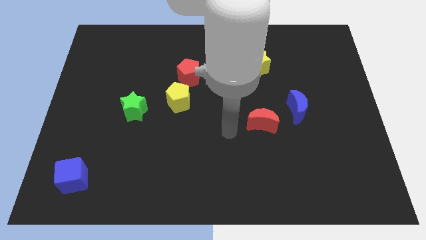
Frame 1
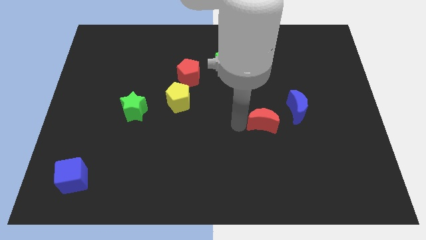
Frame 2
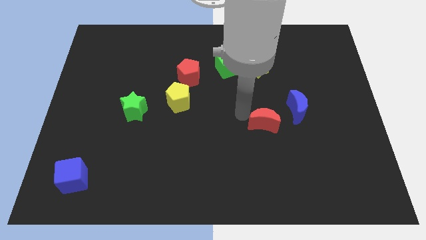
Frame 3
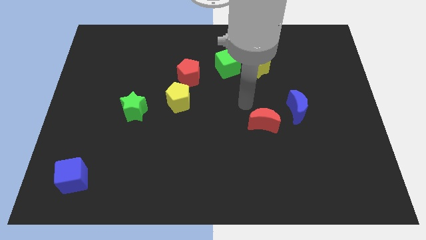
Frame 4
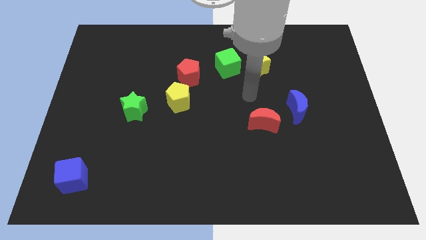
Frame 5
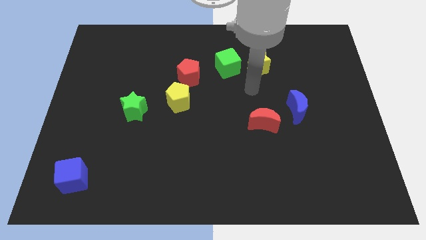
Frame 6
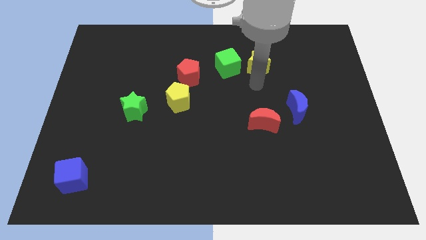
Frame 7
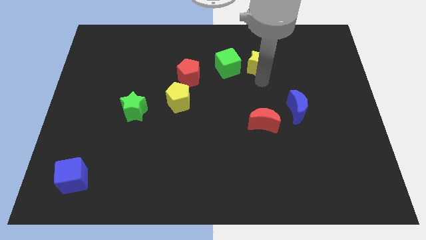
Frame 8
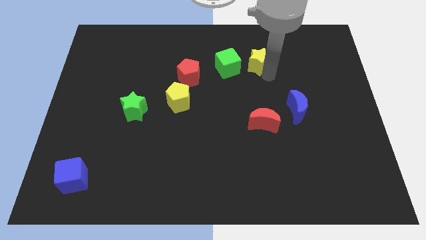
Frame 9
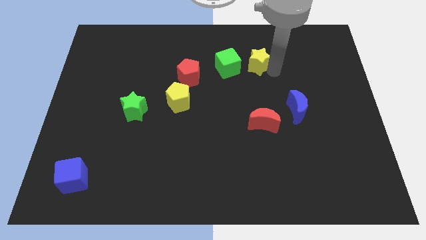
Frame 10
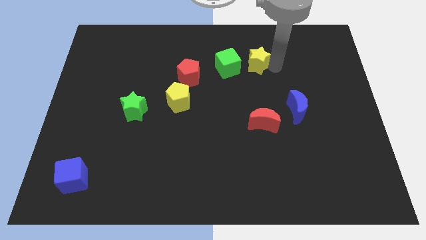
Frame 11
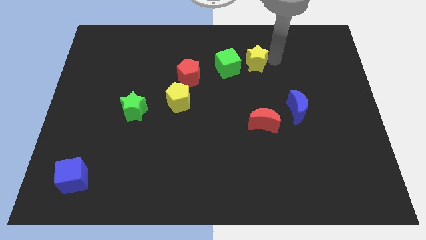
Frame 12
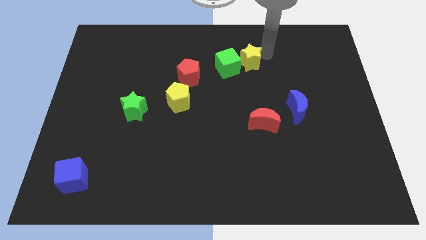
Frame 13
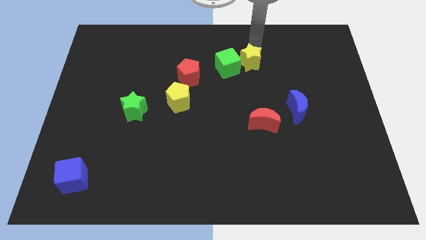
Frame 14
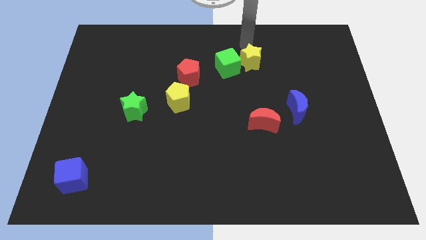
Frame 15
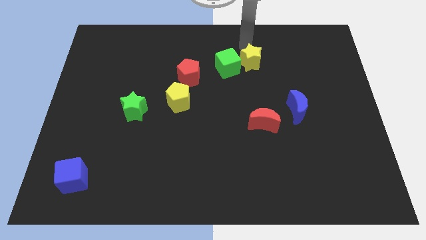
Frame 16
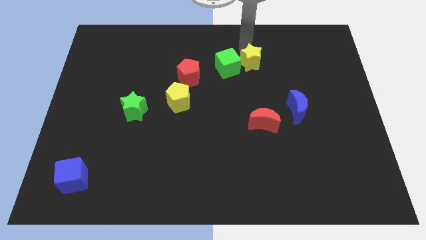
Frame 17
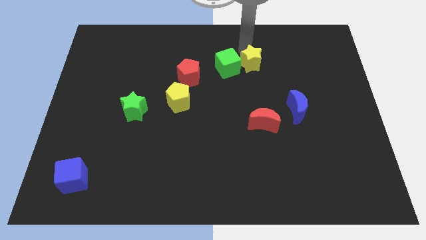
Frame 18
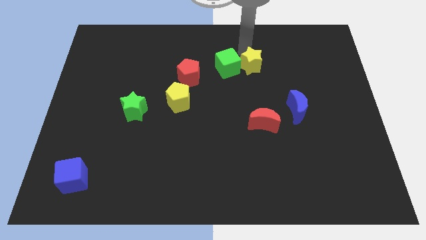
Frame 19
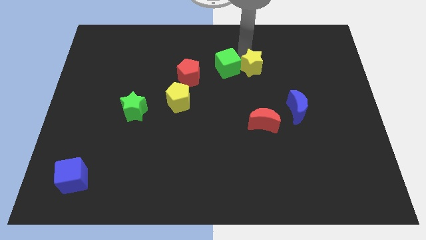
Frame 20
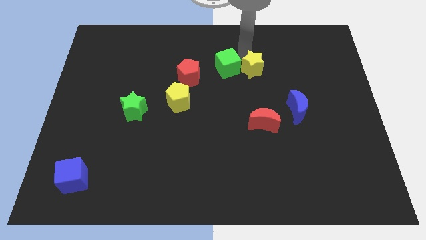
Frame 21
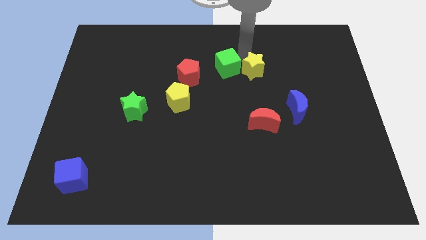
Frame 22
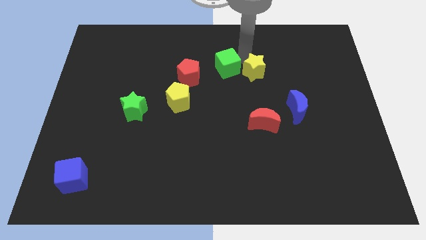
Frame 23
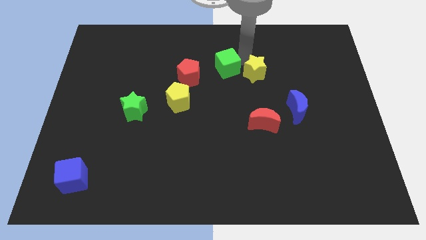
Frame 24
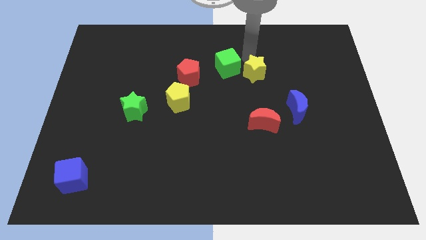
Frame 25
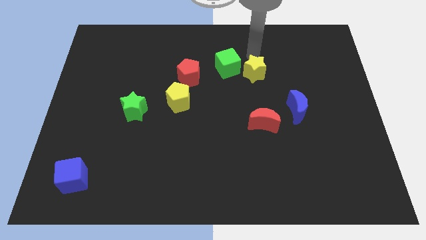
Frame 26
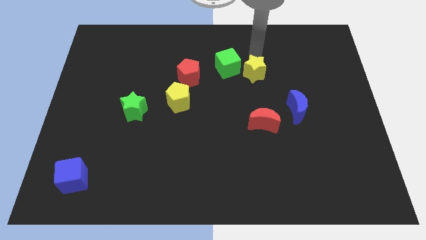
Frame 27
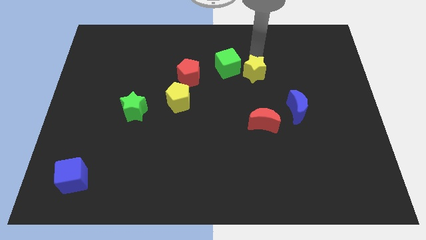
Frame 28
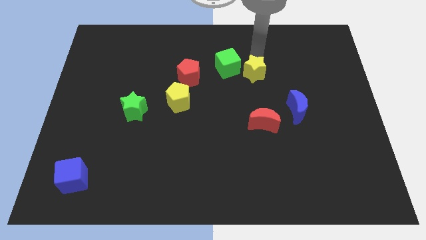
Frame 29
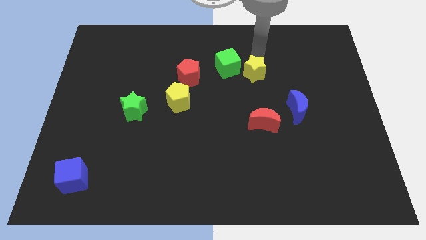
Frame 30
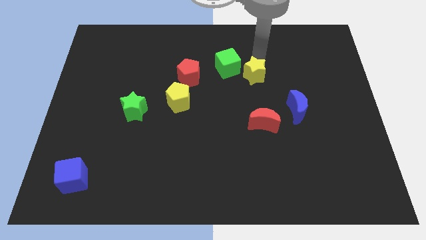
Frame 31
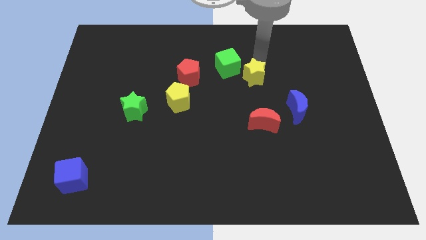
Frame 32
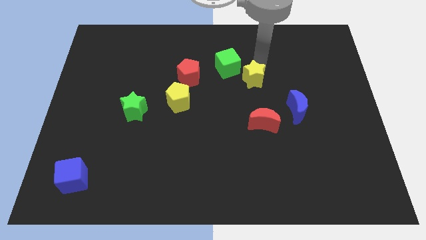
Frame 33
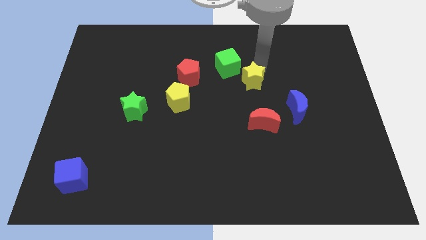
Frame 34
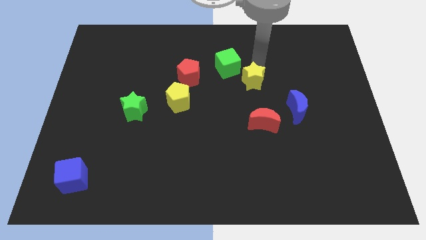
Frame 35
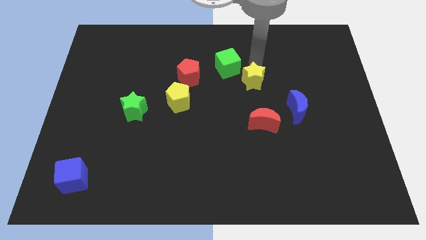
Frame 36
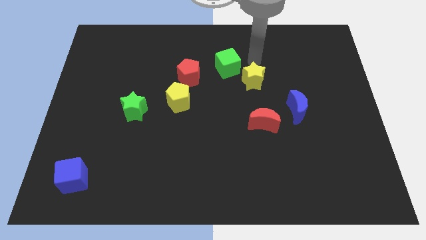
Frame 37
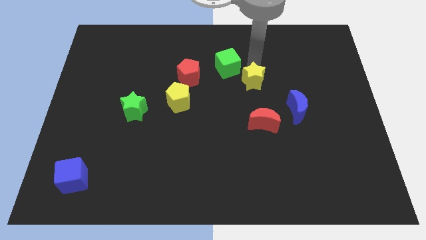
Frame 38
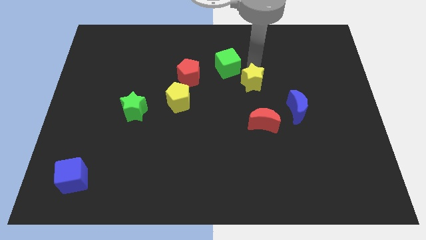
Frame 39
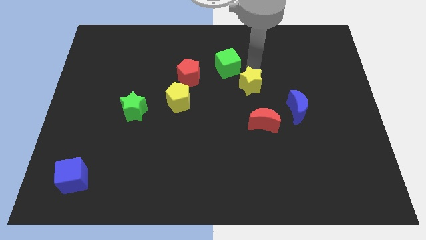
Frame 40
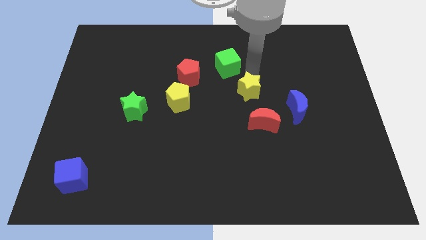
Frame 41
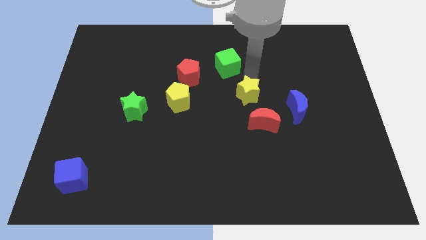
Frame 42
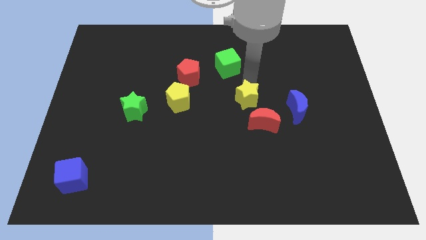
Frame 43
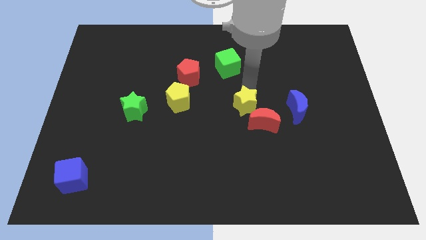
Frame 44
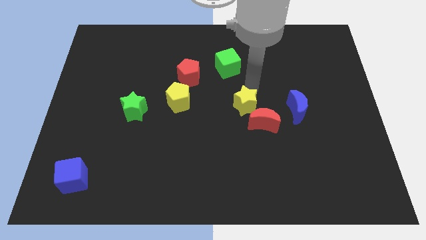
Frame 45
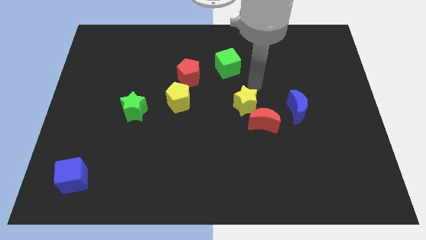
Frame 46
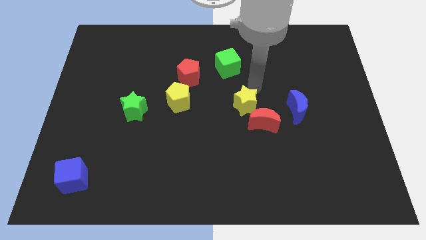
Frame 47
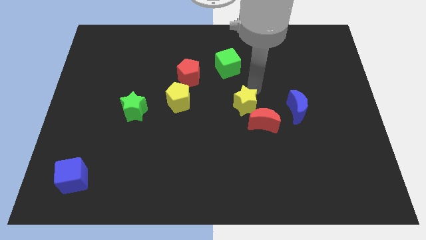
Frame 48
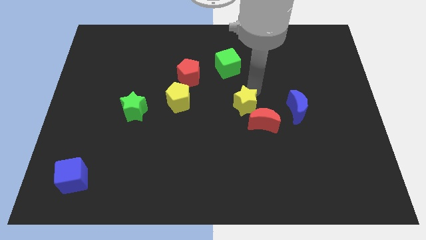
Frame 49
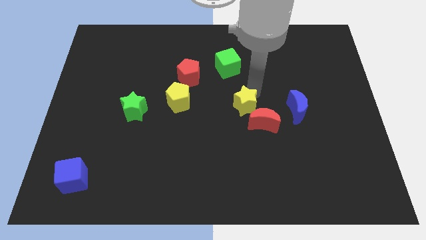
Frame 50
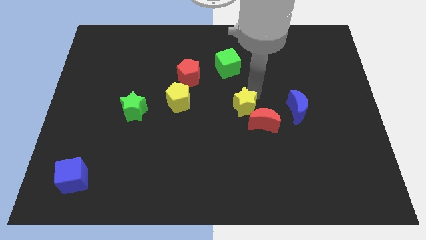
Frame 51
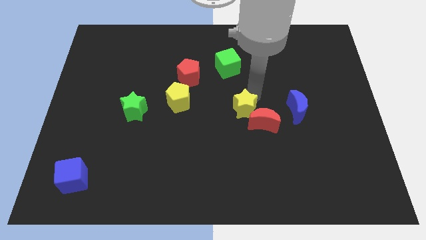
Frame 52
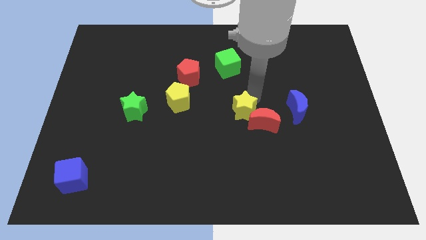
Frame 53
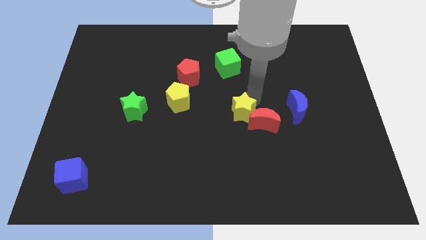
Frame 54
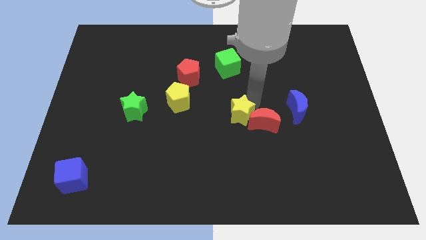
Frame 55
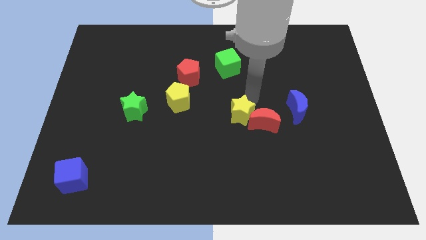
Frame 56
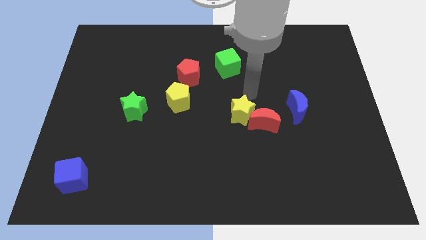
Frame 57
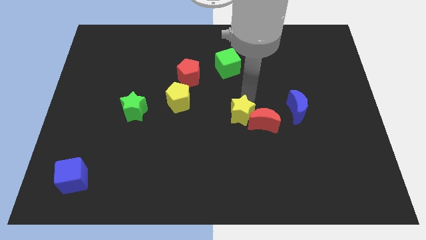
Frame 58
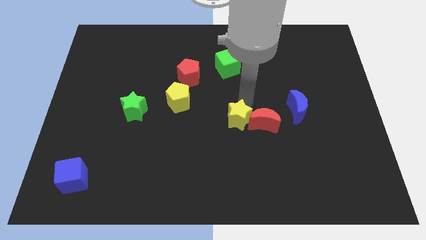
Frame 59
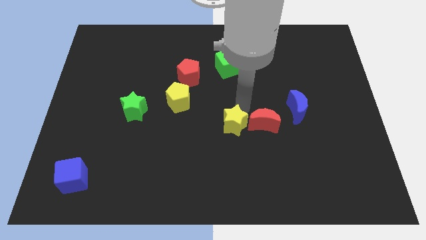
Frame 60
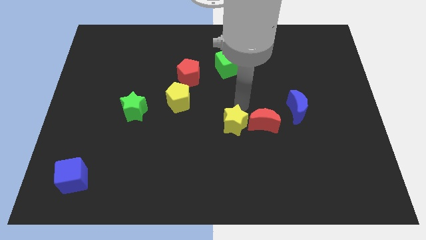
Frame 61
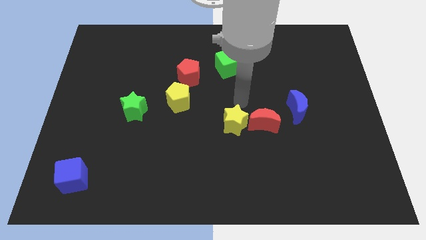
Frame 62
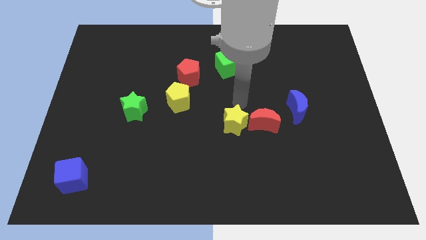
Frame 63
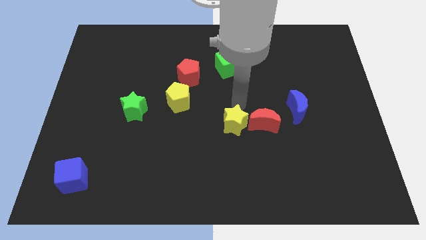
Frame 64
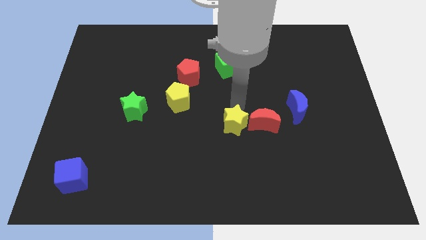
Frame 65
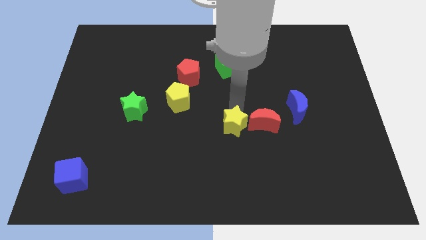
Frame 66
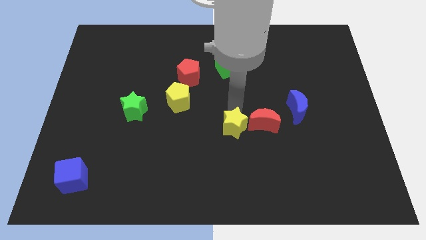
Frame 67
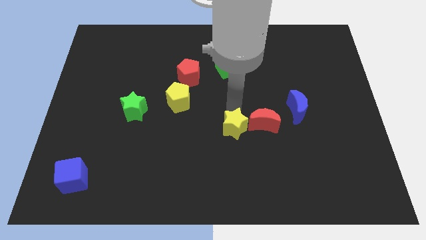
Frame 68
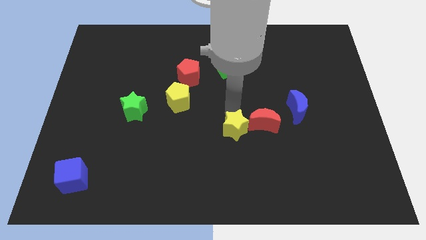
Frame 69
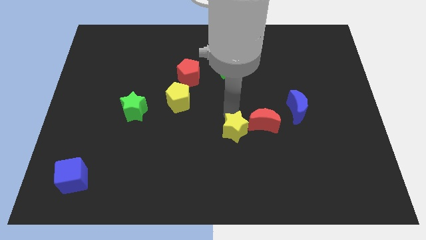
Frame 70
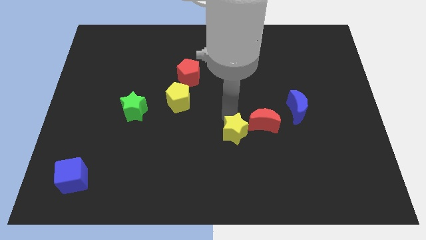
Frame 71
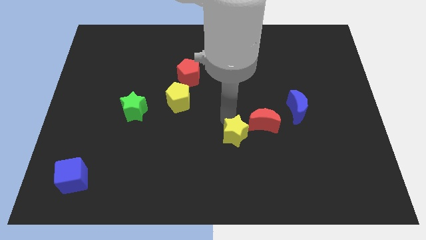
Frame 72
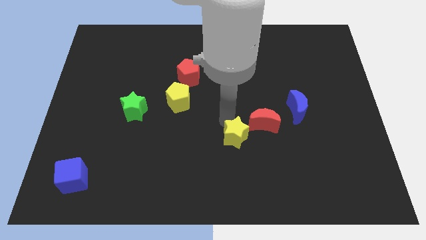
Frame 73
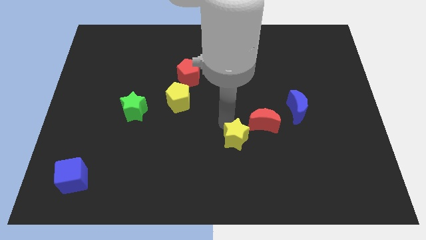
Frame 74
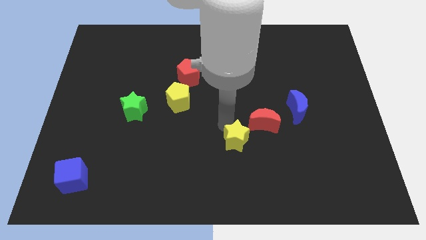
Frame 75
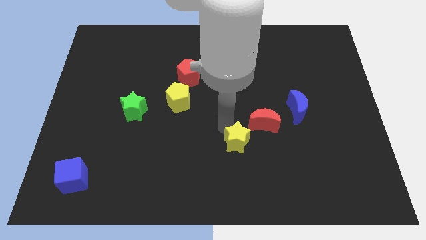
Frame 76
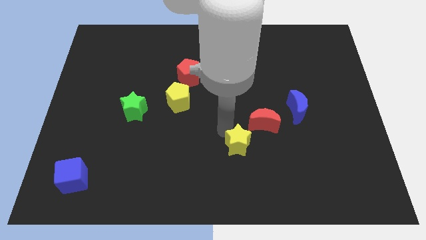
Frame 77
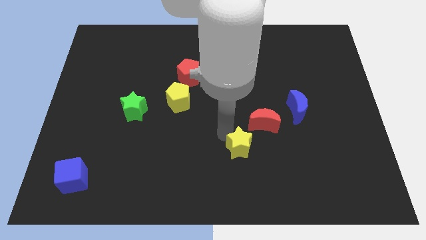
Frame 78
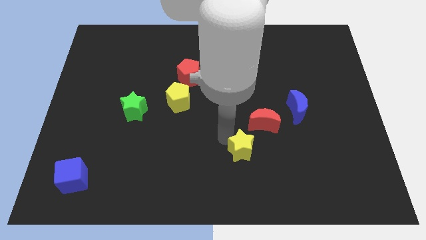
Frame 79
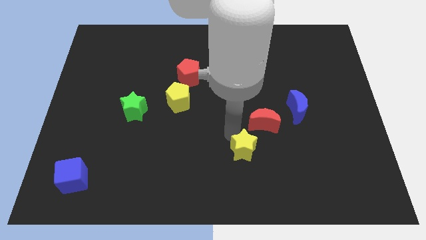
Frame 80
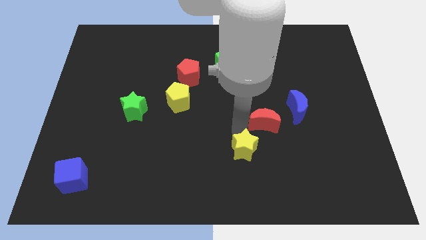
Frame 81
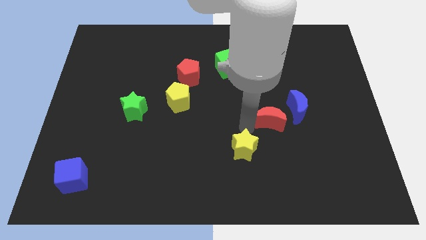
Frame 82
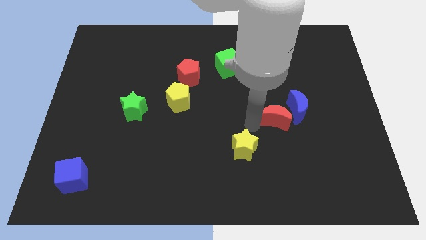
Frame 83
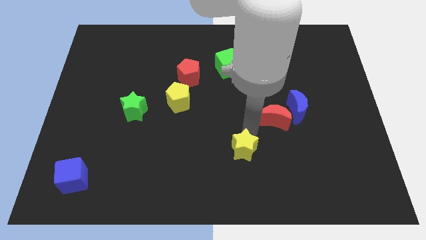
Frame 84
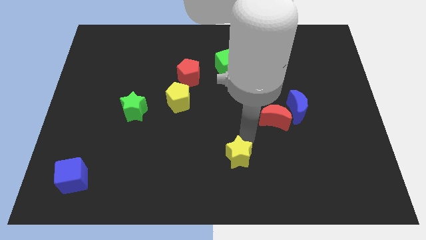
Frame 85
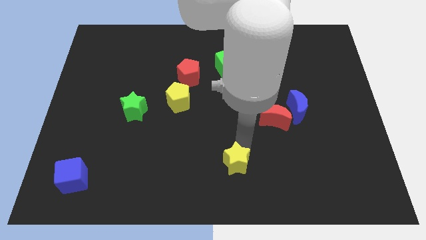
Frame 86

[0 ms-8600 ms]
move the yellow star to the bottom side
